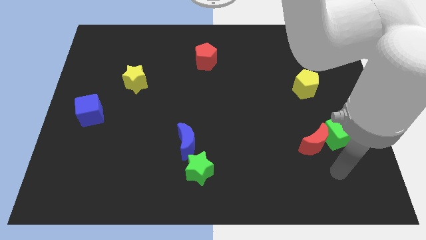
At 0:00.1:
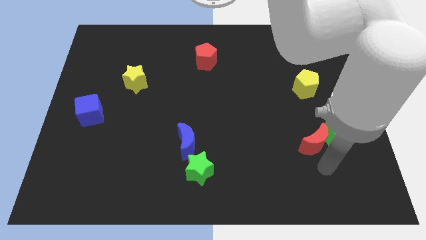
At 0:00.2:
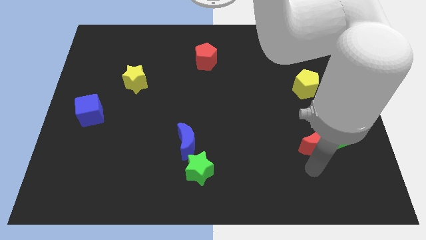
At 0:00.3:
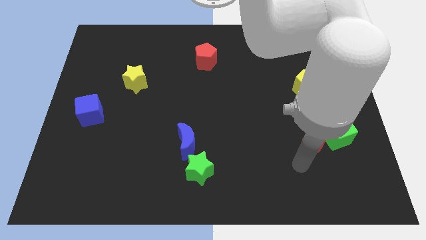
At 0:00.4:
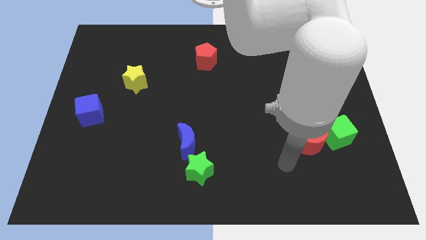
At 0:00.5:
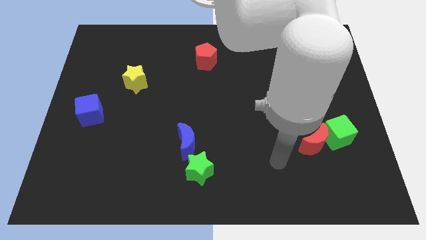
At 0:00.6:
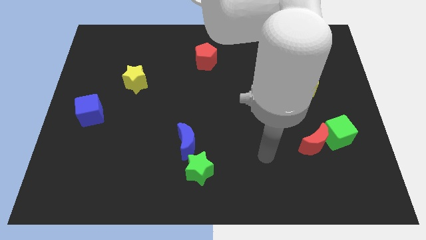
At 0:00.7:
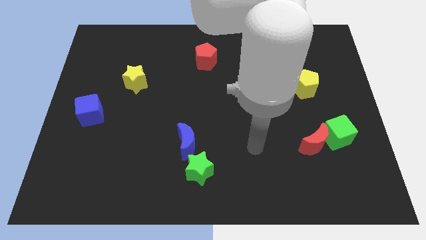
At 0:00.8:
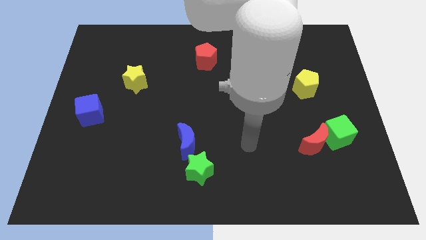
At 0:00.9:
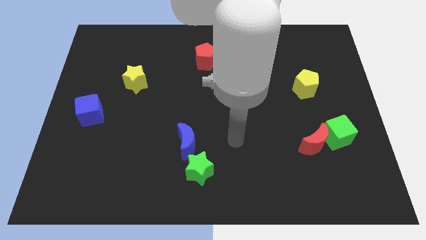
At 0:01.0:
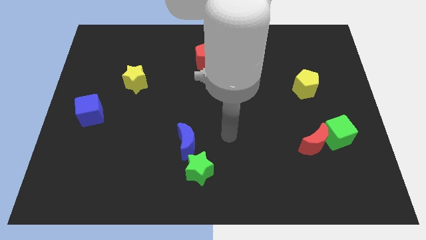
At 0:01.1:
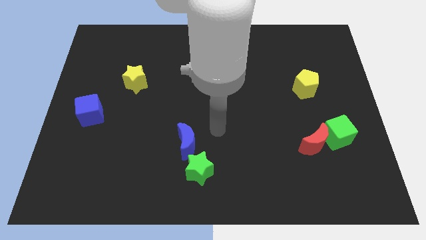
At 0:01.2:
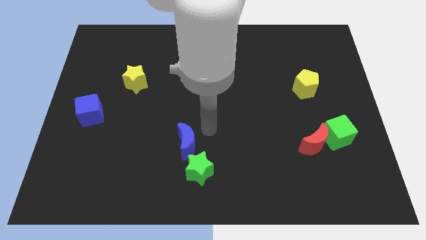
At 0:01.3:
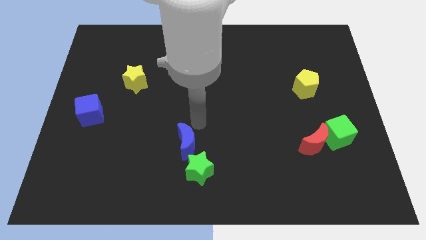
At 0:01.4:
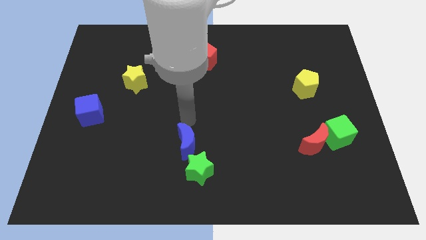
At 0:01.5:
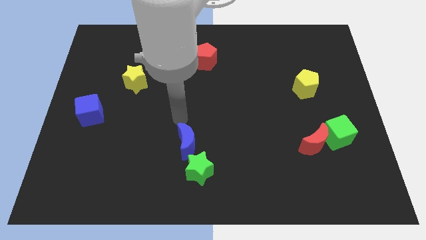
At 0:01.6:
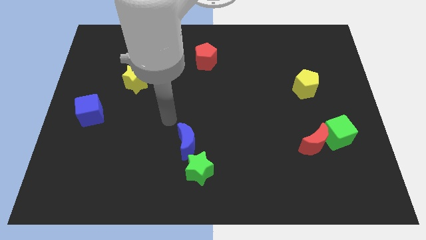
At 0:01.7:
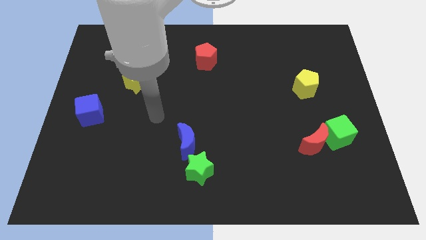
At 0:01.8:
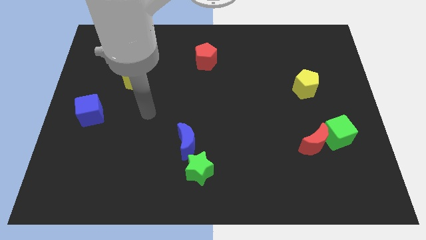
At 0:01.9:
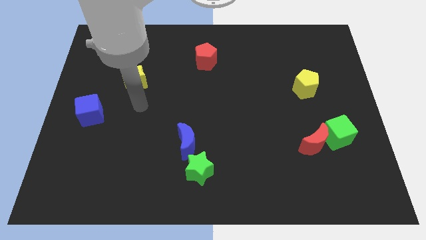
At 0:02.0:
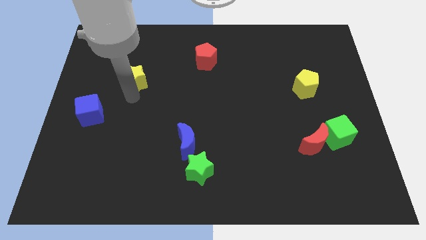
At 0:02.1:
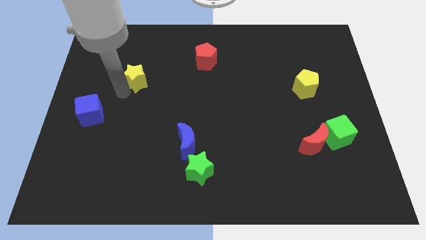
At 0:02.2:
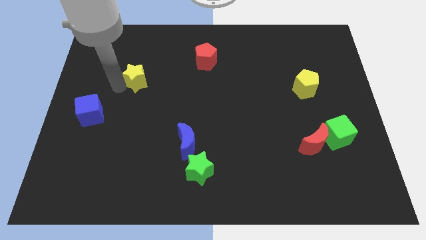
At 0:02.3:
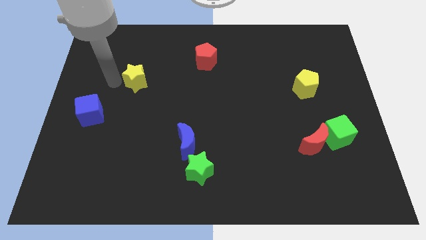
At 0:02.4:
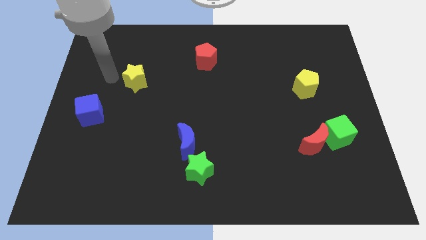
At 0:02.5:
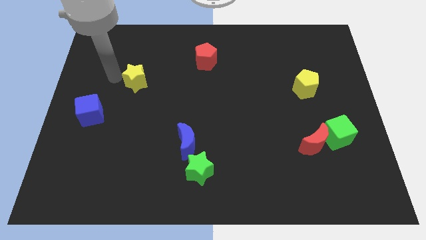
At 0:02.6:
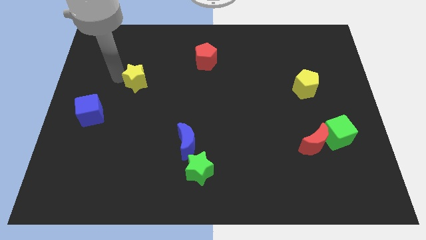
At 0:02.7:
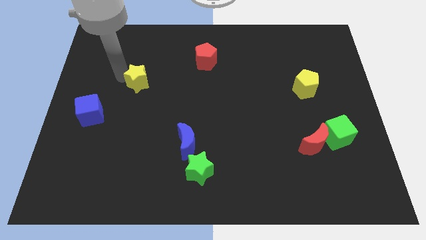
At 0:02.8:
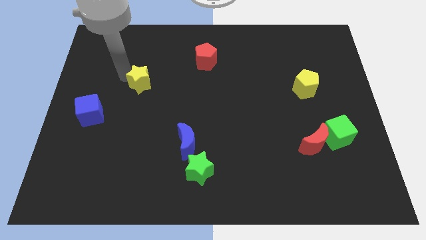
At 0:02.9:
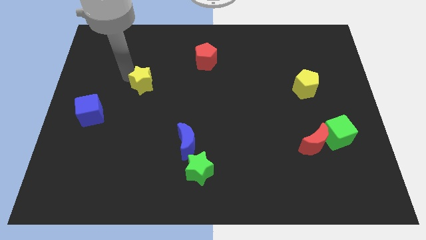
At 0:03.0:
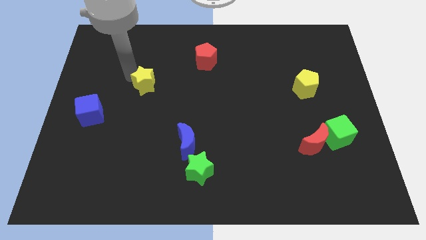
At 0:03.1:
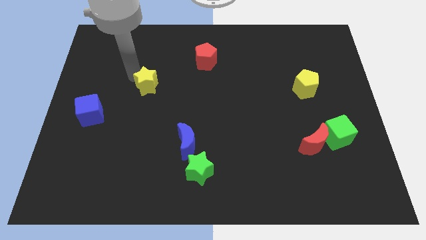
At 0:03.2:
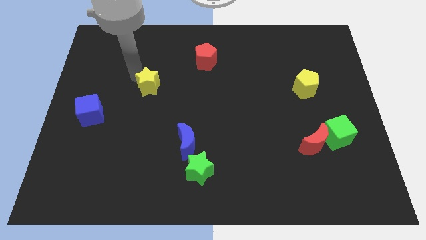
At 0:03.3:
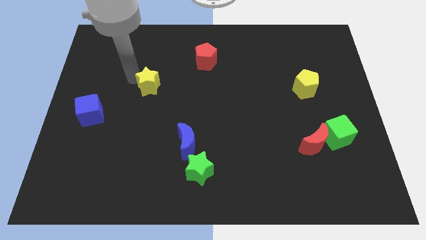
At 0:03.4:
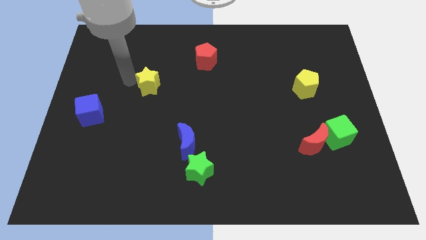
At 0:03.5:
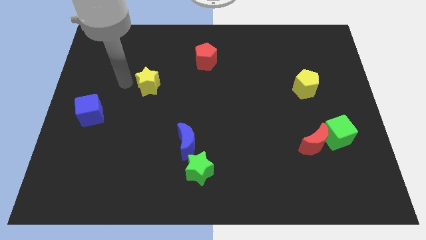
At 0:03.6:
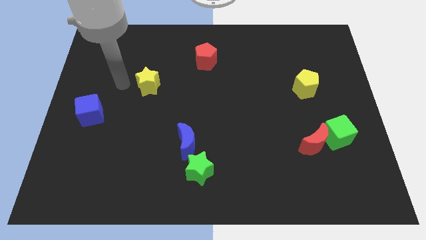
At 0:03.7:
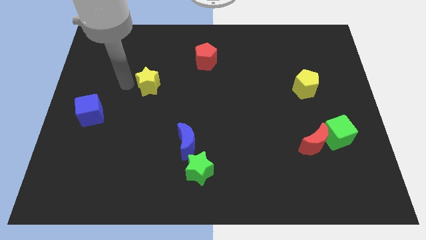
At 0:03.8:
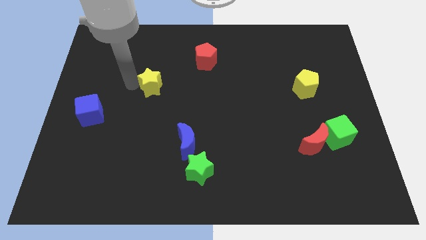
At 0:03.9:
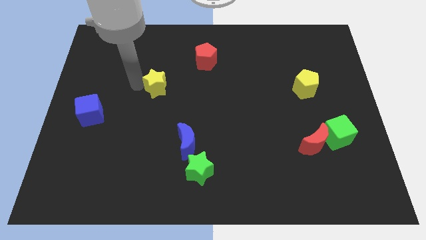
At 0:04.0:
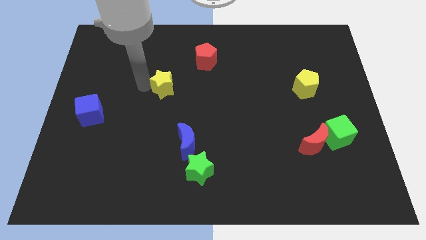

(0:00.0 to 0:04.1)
move the yellow star a little bit to the right

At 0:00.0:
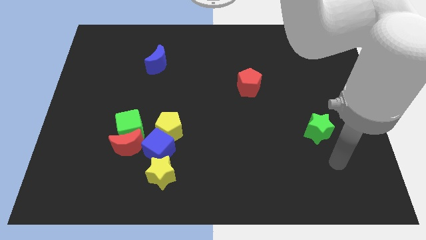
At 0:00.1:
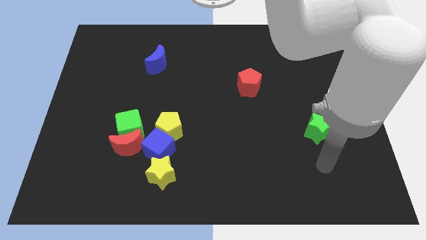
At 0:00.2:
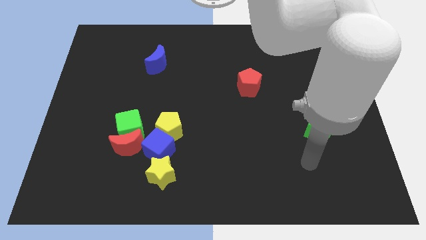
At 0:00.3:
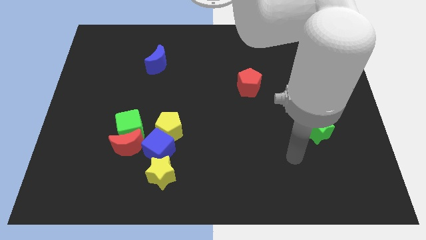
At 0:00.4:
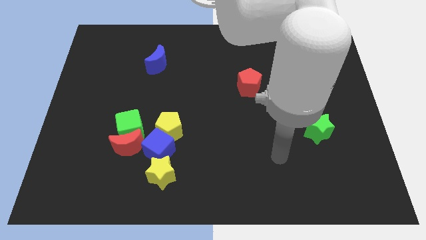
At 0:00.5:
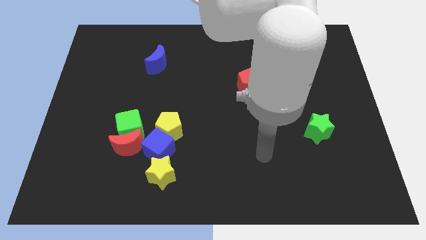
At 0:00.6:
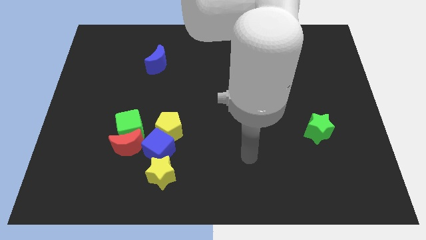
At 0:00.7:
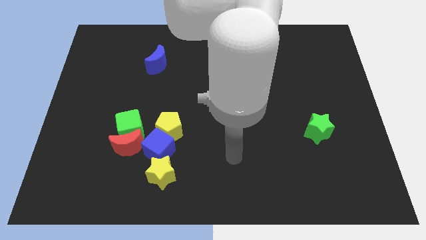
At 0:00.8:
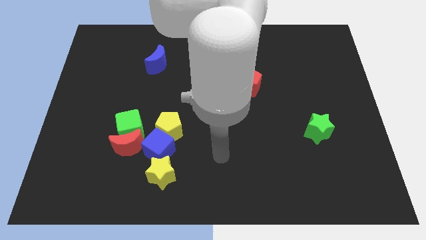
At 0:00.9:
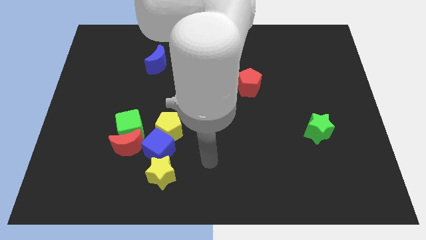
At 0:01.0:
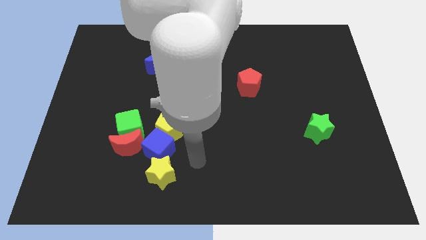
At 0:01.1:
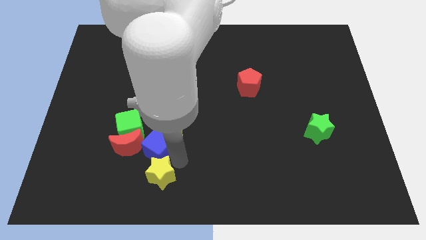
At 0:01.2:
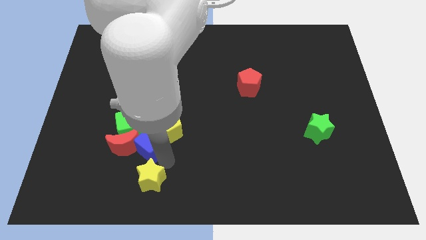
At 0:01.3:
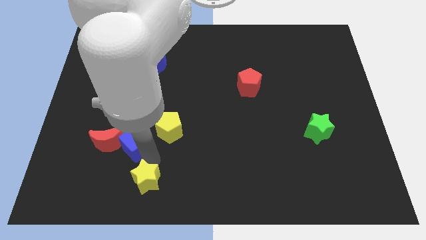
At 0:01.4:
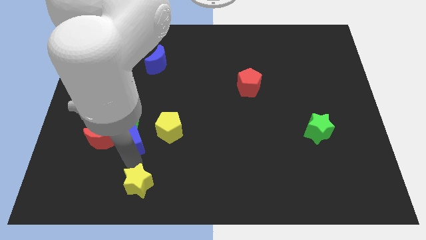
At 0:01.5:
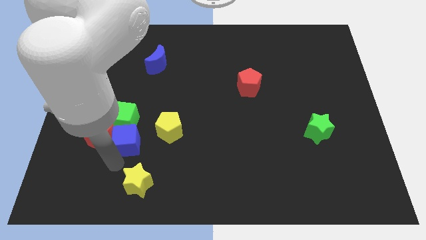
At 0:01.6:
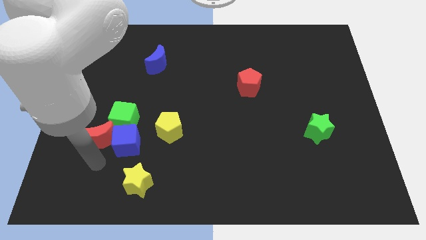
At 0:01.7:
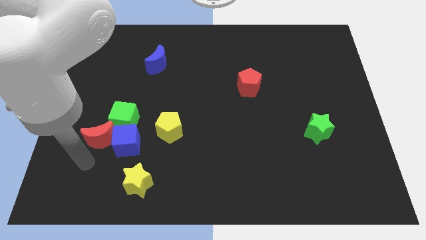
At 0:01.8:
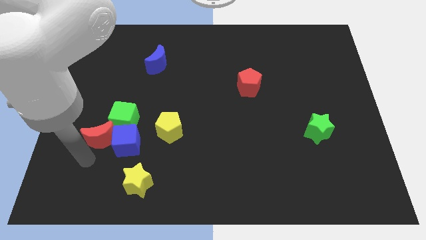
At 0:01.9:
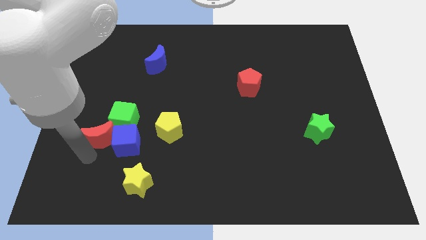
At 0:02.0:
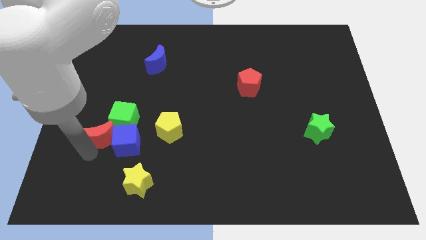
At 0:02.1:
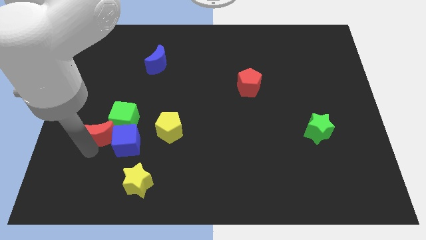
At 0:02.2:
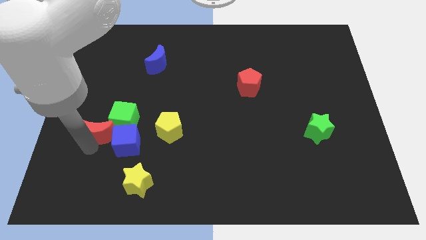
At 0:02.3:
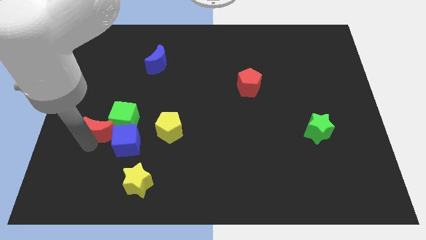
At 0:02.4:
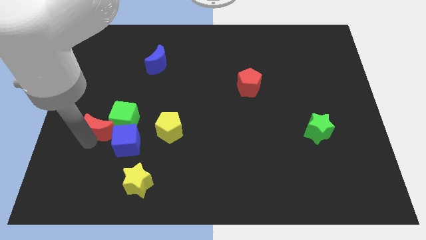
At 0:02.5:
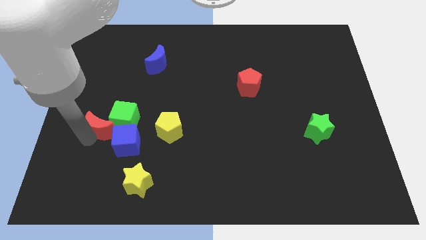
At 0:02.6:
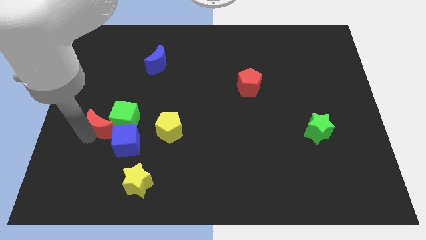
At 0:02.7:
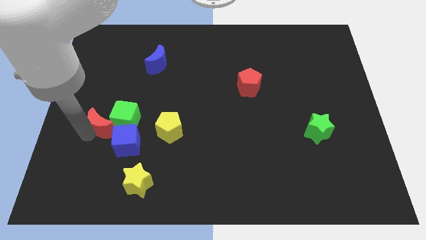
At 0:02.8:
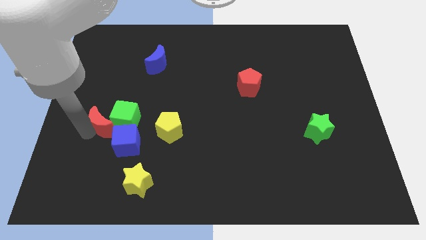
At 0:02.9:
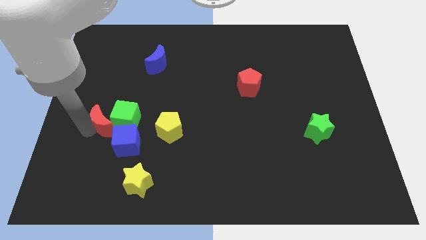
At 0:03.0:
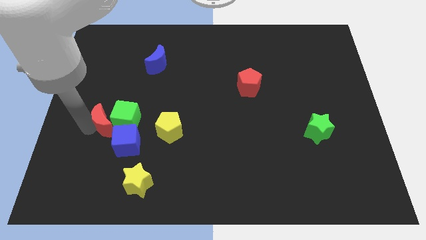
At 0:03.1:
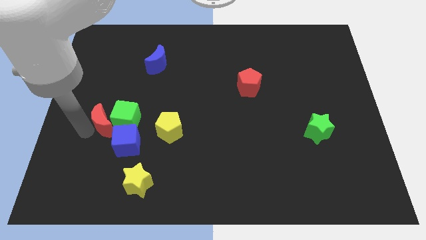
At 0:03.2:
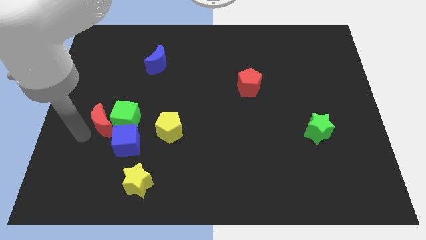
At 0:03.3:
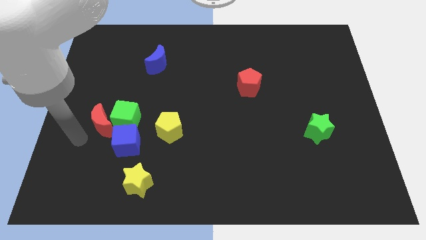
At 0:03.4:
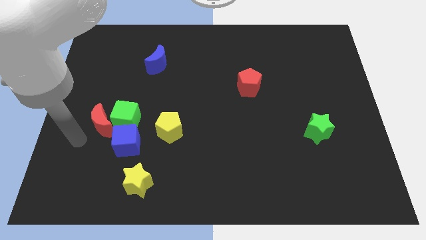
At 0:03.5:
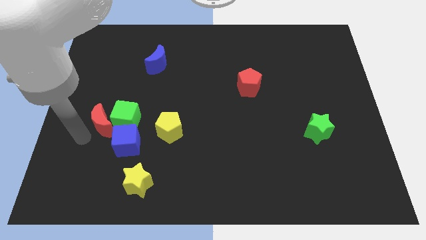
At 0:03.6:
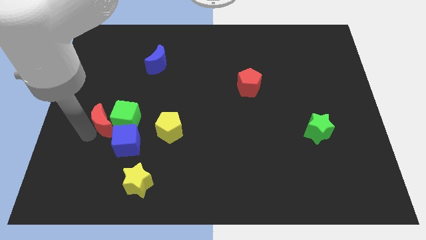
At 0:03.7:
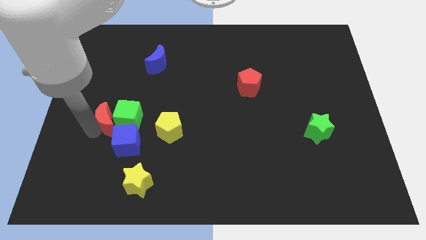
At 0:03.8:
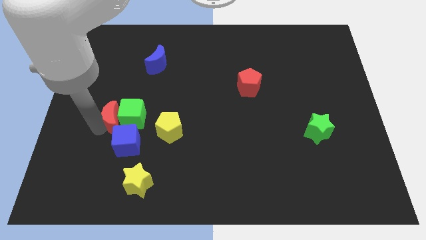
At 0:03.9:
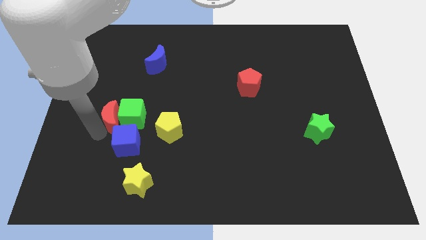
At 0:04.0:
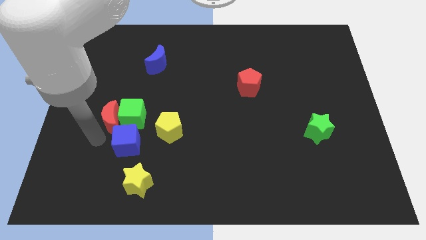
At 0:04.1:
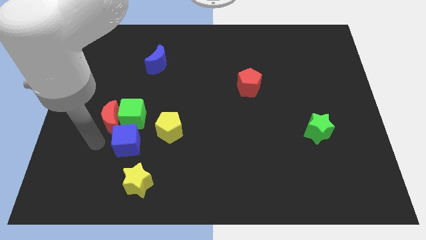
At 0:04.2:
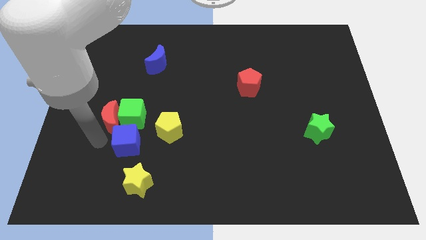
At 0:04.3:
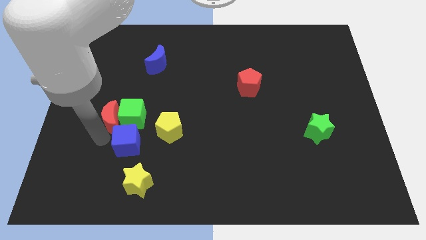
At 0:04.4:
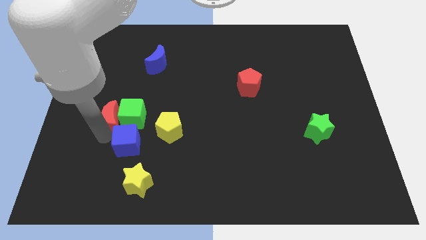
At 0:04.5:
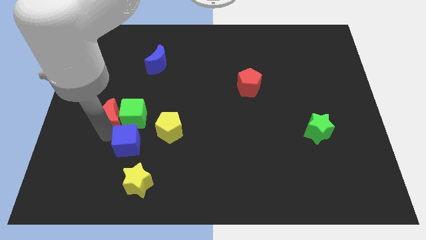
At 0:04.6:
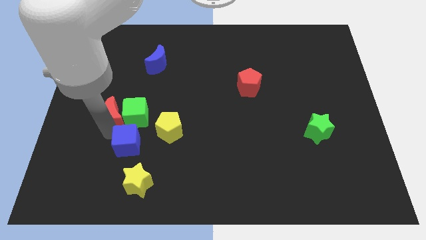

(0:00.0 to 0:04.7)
slightly slide the red moon up
